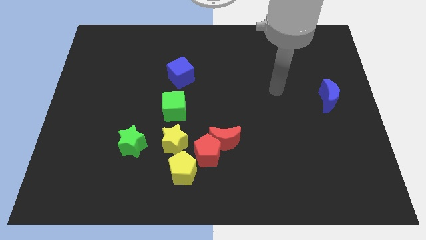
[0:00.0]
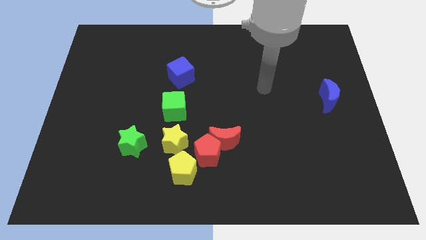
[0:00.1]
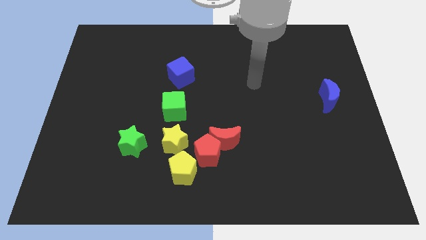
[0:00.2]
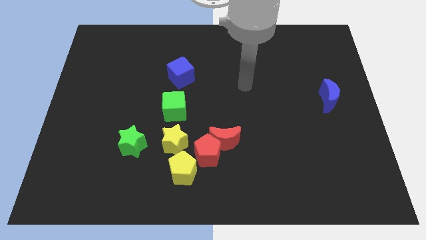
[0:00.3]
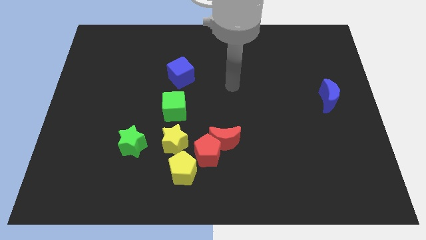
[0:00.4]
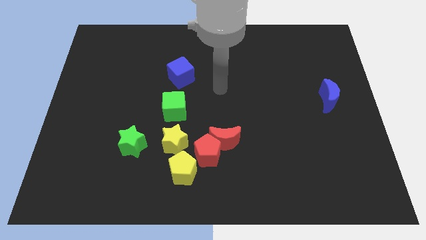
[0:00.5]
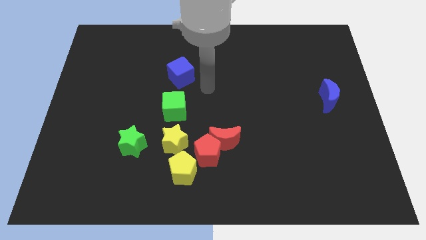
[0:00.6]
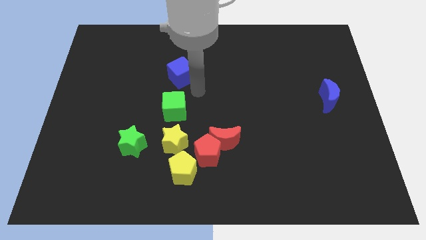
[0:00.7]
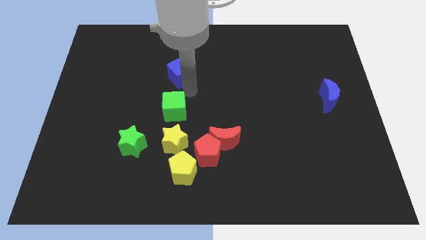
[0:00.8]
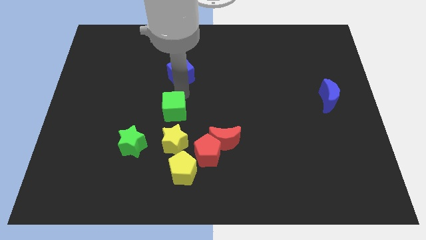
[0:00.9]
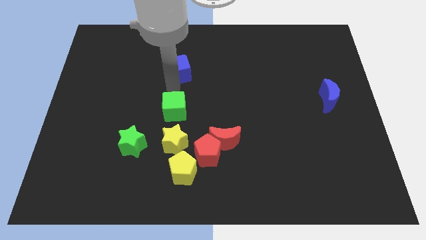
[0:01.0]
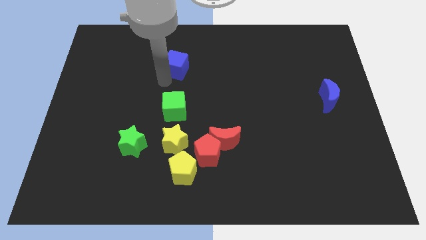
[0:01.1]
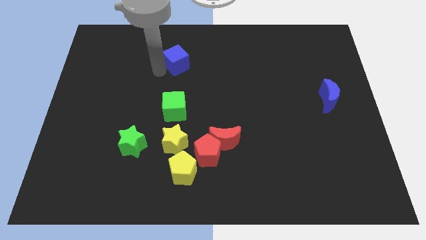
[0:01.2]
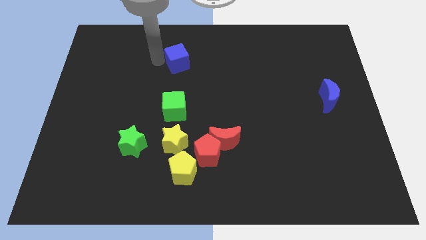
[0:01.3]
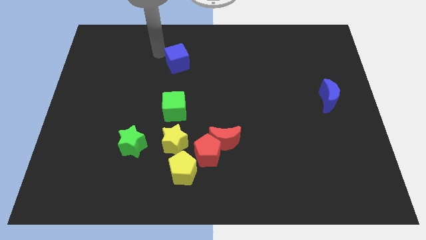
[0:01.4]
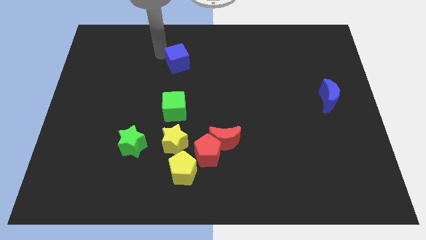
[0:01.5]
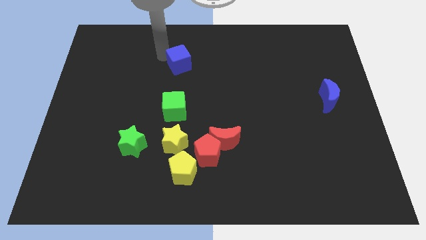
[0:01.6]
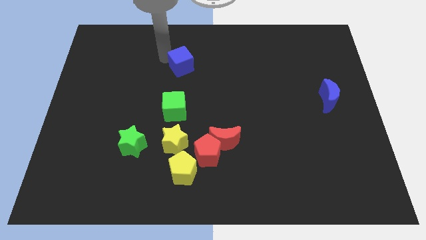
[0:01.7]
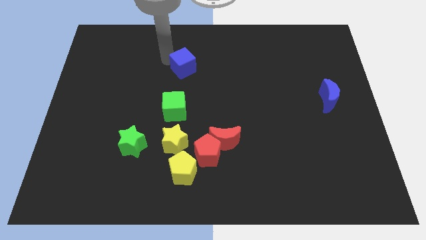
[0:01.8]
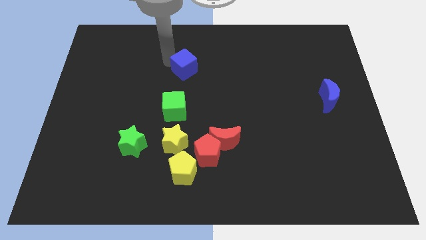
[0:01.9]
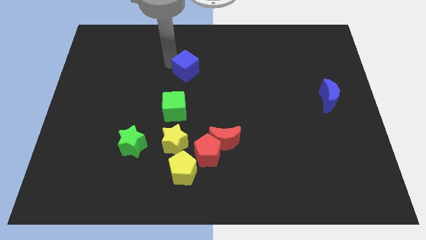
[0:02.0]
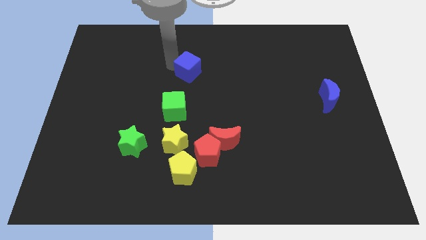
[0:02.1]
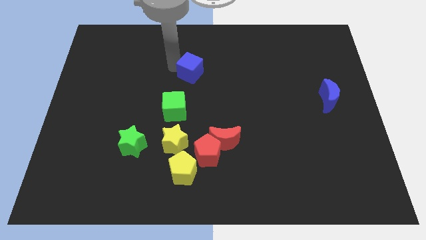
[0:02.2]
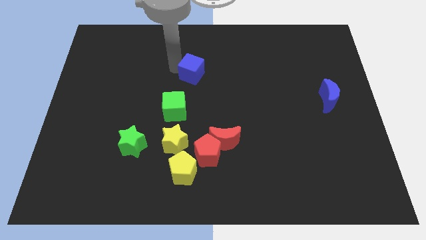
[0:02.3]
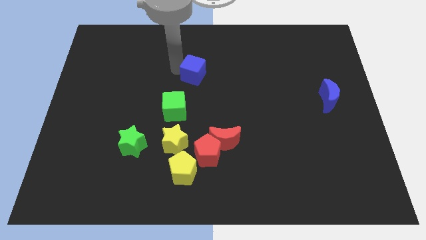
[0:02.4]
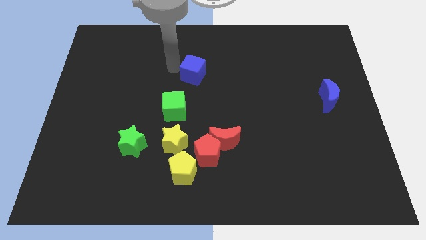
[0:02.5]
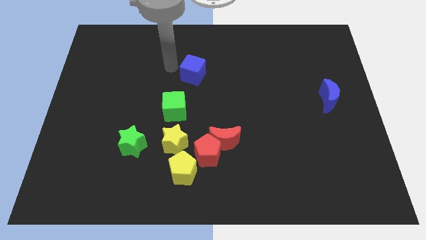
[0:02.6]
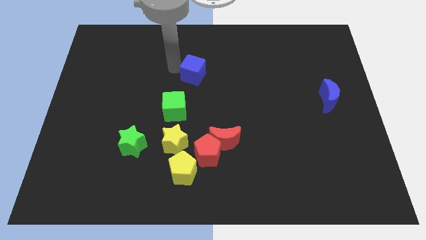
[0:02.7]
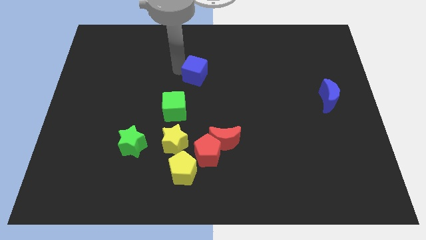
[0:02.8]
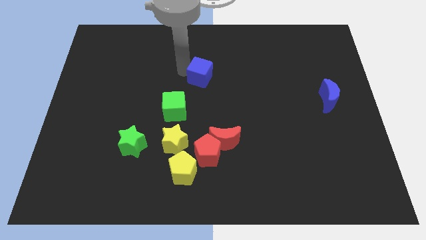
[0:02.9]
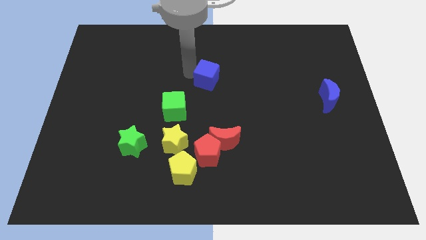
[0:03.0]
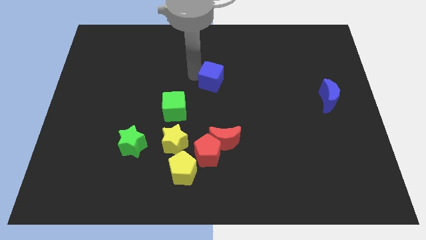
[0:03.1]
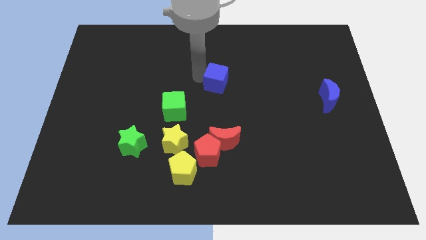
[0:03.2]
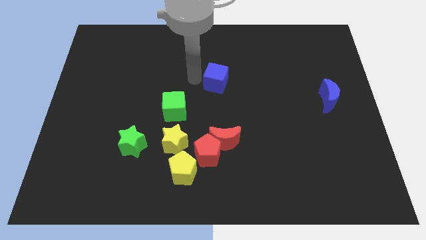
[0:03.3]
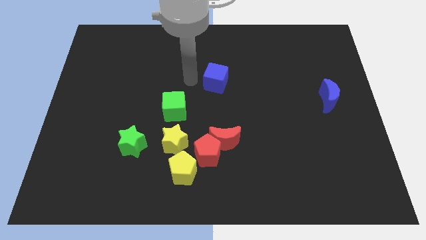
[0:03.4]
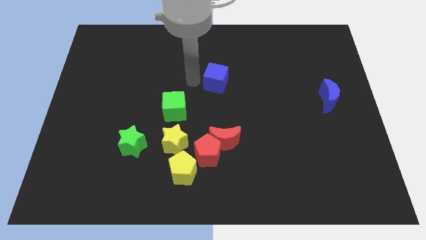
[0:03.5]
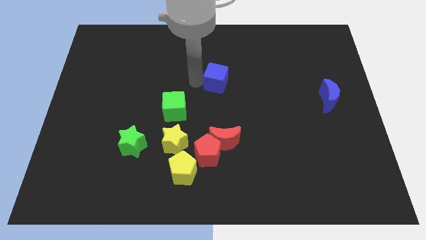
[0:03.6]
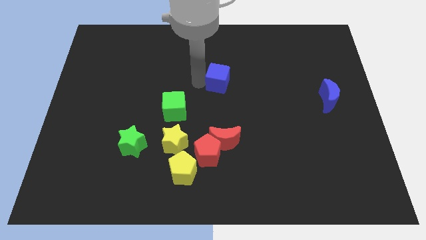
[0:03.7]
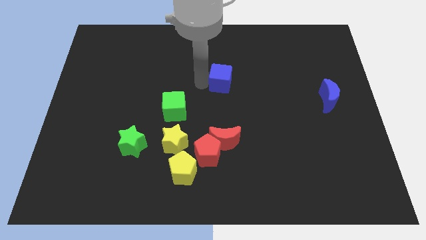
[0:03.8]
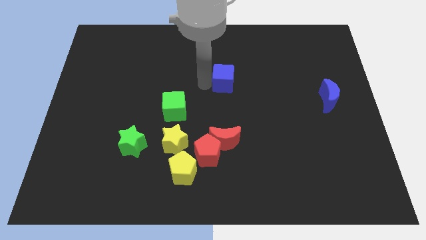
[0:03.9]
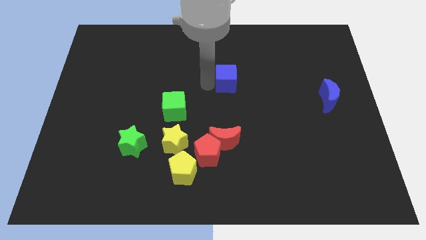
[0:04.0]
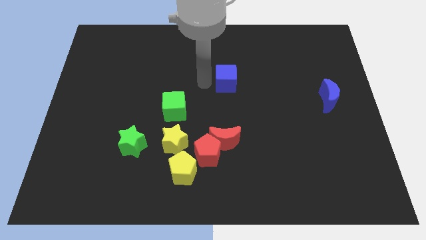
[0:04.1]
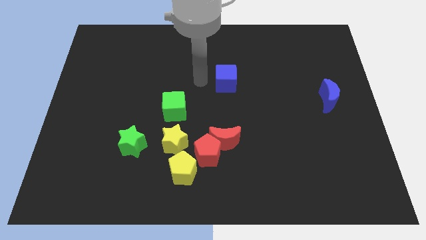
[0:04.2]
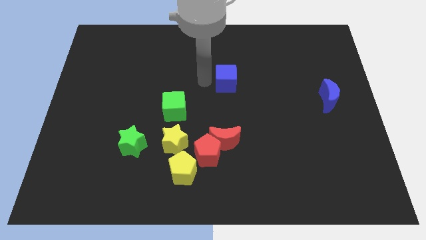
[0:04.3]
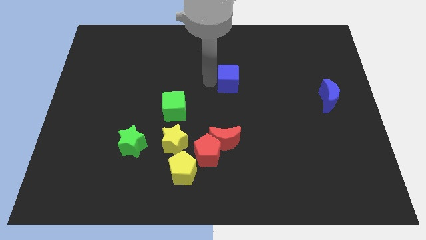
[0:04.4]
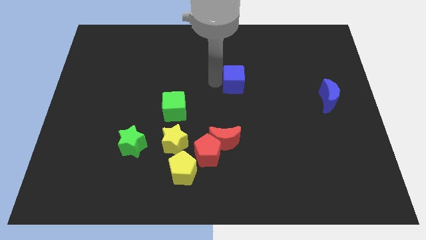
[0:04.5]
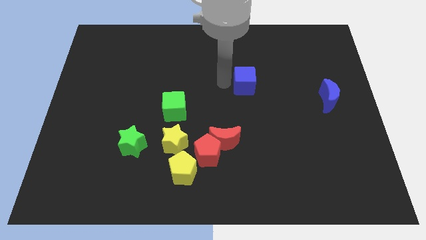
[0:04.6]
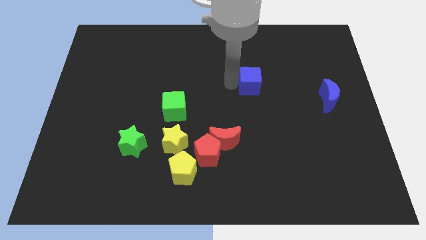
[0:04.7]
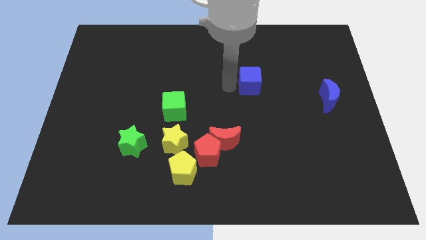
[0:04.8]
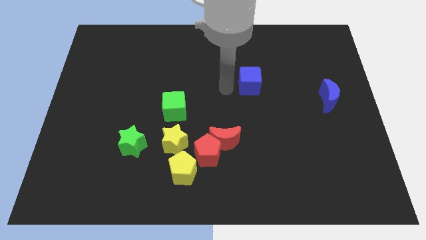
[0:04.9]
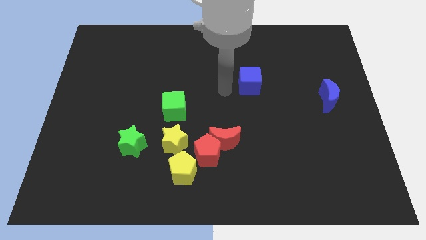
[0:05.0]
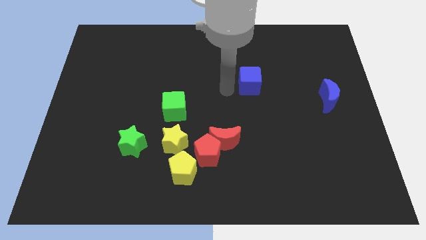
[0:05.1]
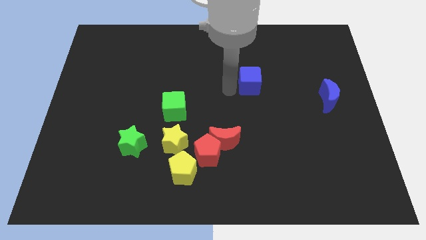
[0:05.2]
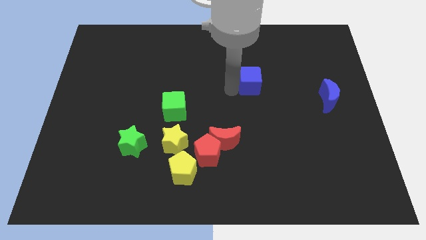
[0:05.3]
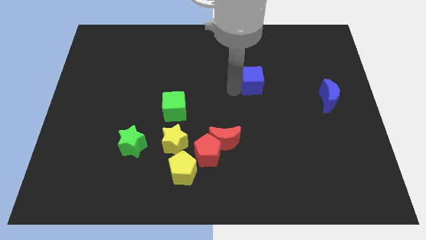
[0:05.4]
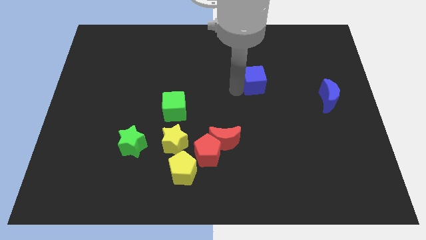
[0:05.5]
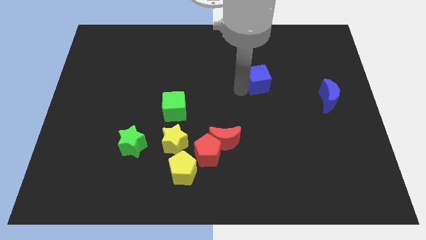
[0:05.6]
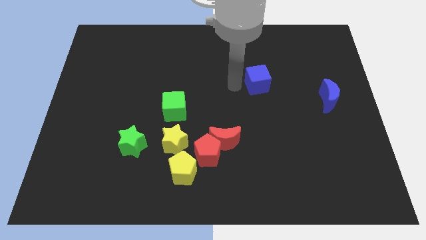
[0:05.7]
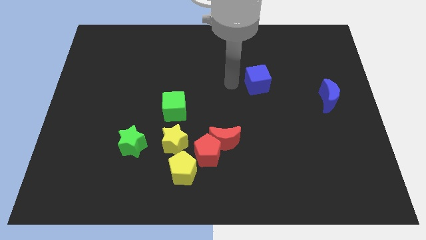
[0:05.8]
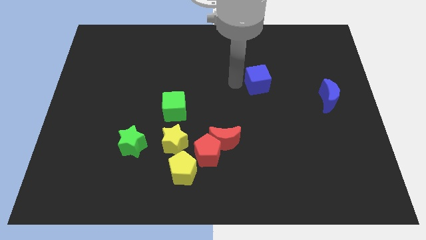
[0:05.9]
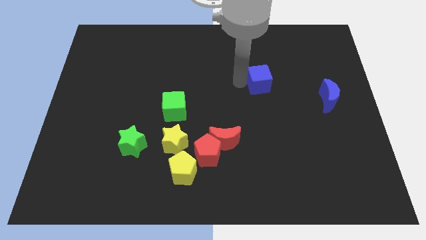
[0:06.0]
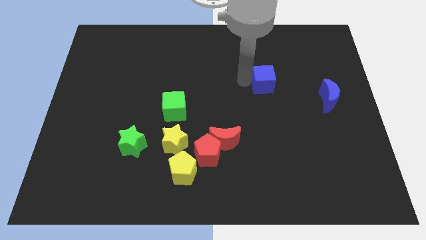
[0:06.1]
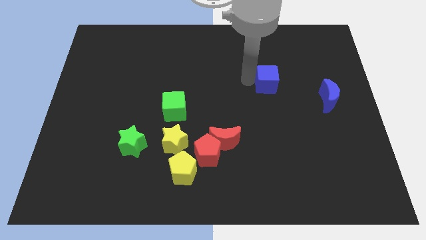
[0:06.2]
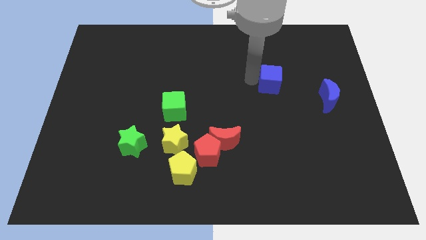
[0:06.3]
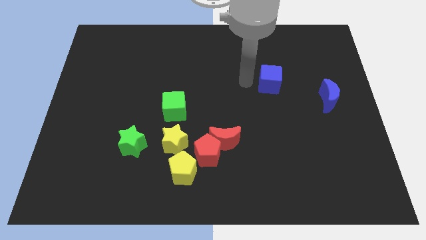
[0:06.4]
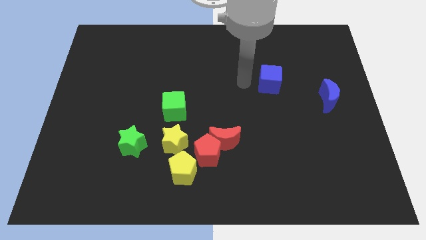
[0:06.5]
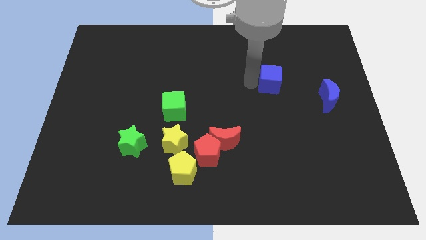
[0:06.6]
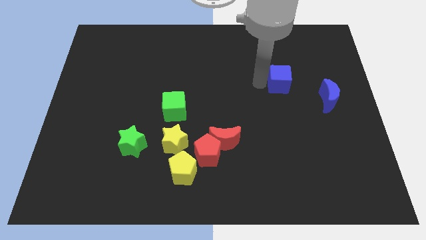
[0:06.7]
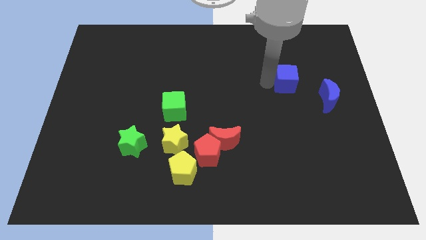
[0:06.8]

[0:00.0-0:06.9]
slide the blue cube diagonally up and to the left of the blue moon
